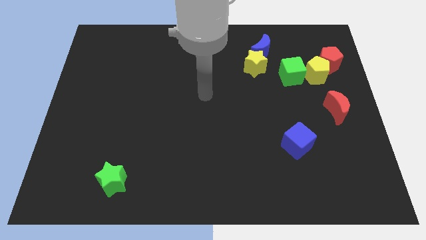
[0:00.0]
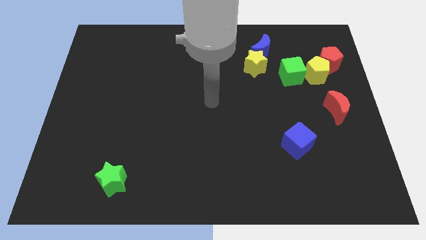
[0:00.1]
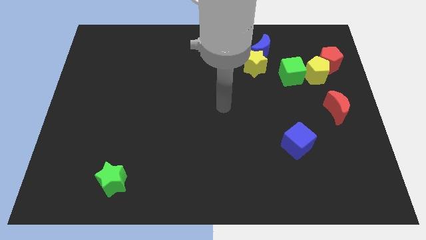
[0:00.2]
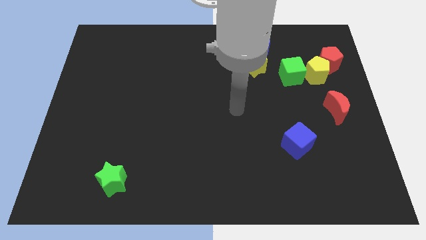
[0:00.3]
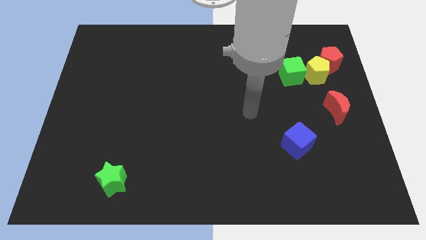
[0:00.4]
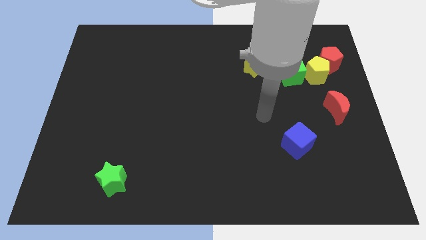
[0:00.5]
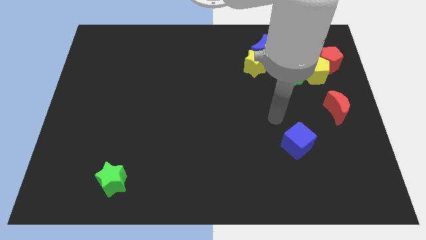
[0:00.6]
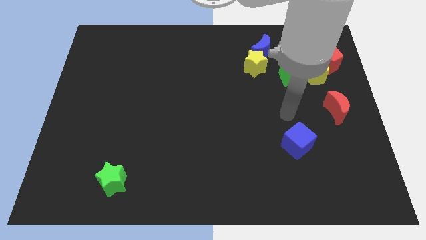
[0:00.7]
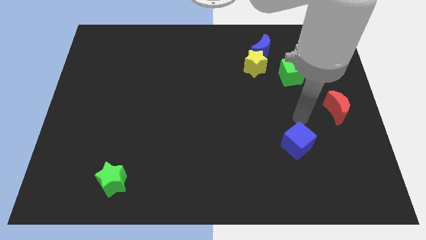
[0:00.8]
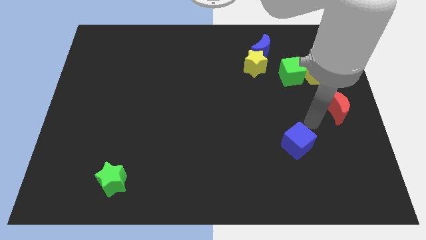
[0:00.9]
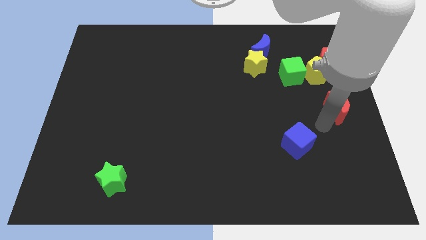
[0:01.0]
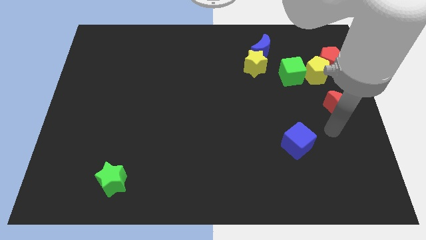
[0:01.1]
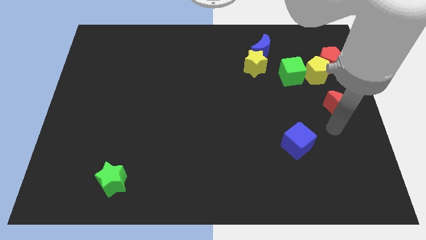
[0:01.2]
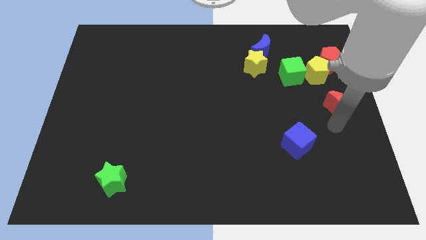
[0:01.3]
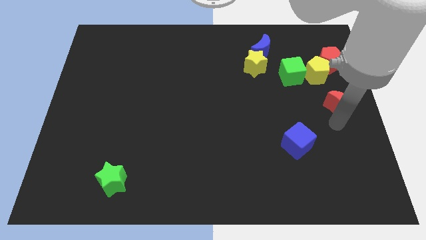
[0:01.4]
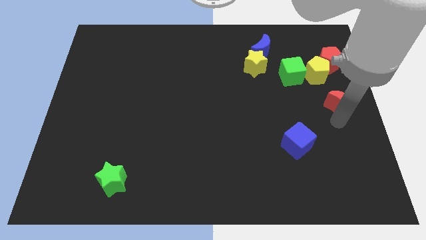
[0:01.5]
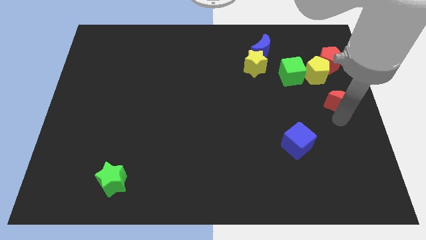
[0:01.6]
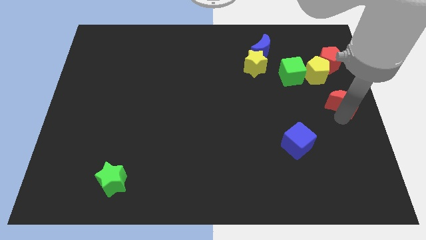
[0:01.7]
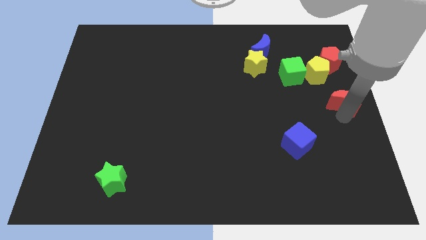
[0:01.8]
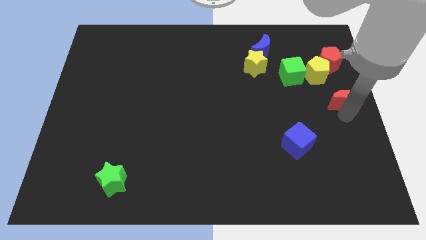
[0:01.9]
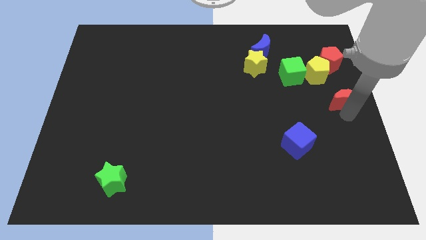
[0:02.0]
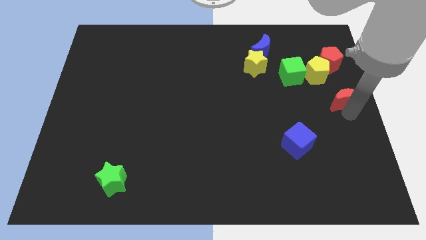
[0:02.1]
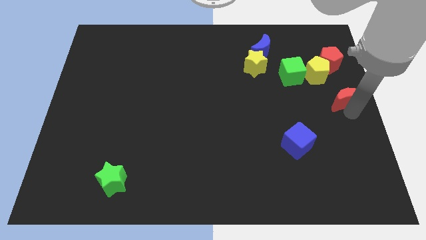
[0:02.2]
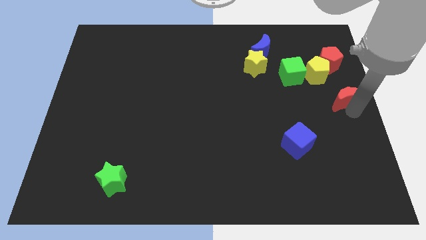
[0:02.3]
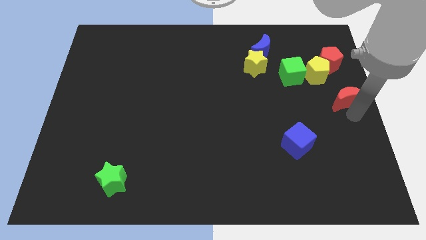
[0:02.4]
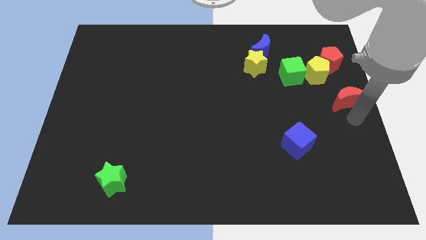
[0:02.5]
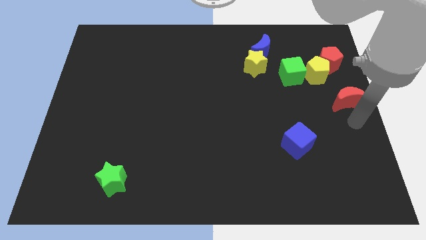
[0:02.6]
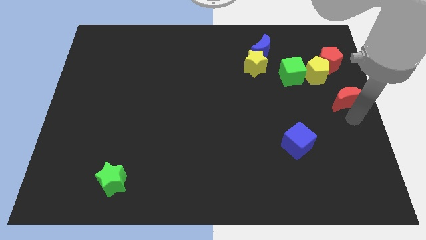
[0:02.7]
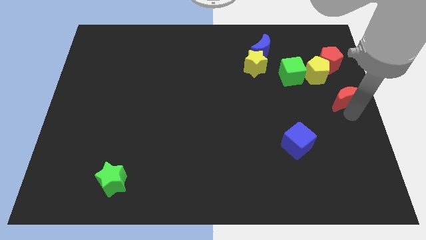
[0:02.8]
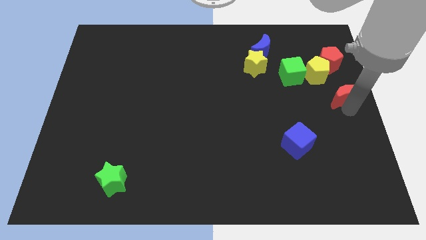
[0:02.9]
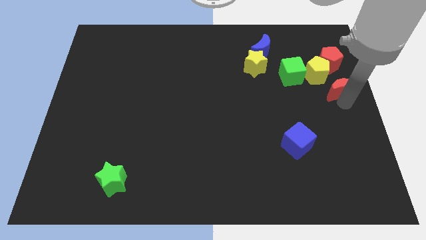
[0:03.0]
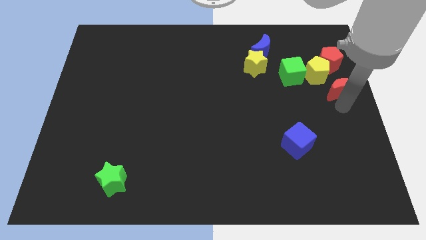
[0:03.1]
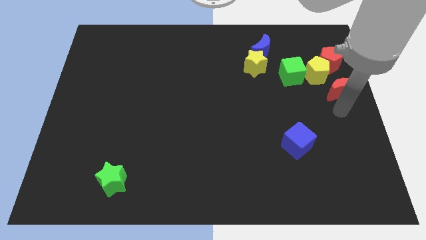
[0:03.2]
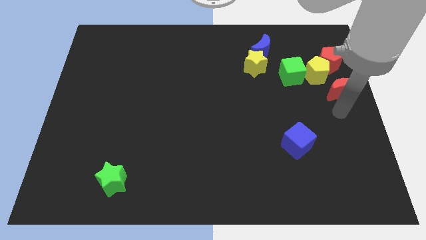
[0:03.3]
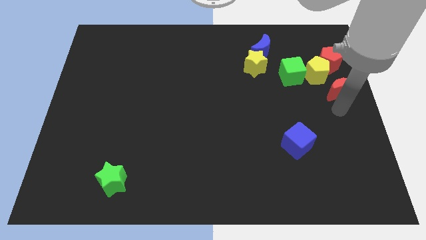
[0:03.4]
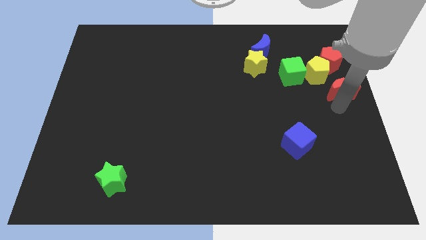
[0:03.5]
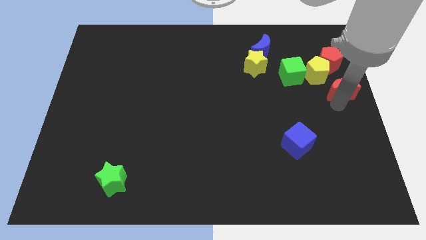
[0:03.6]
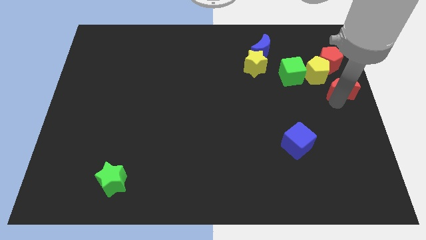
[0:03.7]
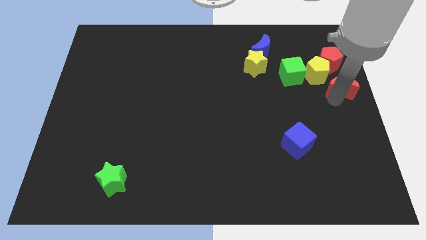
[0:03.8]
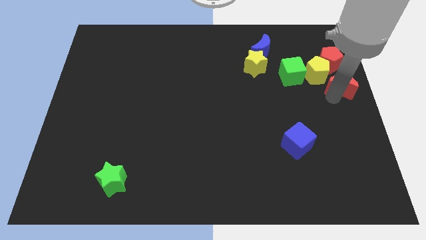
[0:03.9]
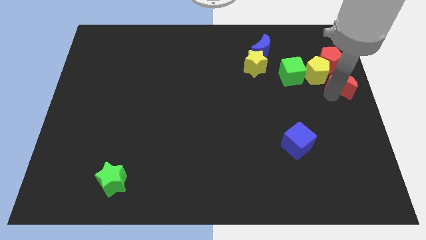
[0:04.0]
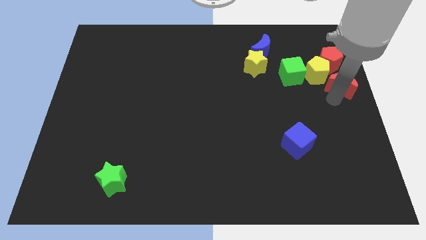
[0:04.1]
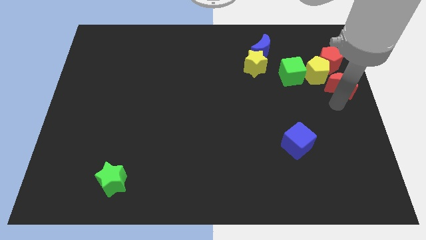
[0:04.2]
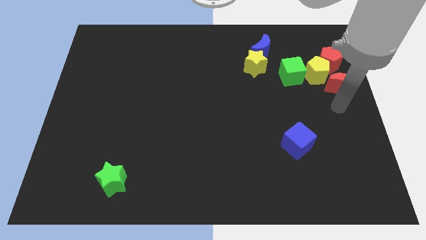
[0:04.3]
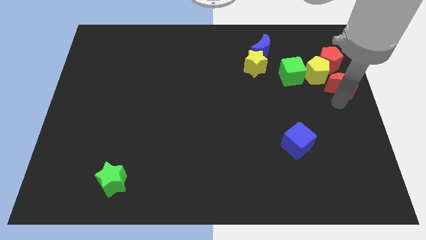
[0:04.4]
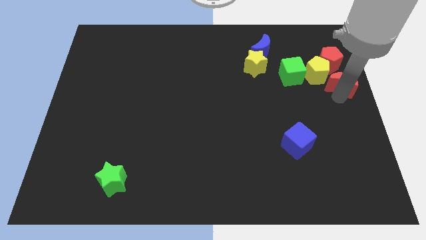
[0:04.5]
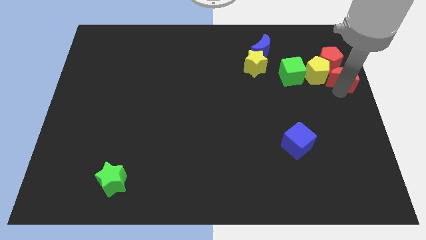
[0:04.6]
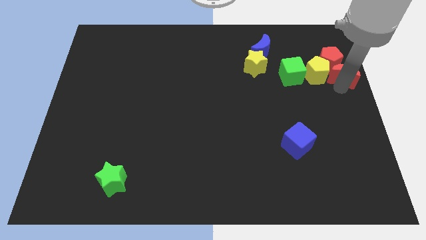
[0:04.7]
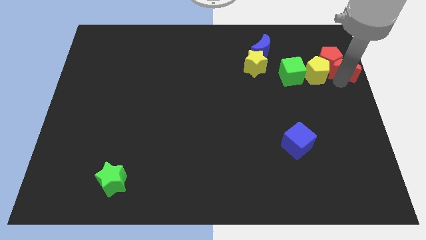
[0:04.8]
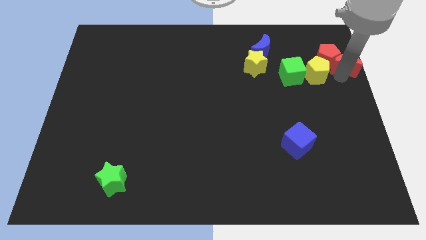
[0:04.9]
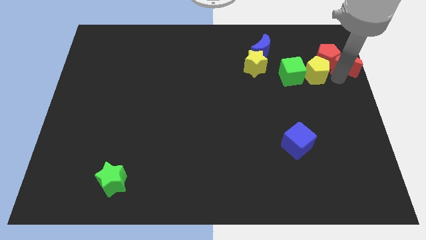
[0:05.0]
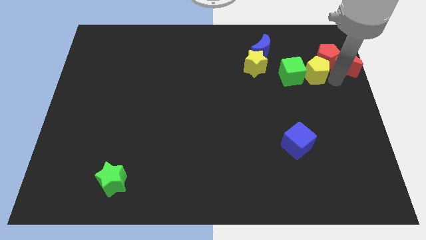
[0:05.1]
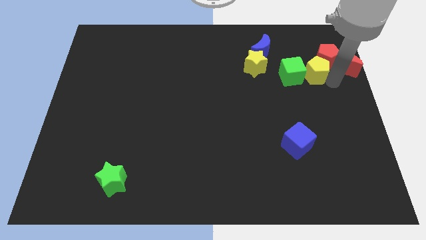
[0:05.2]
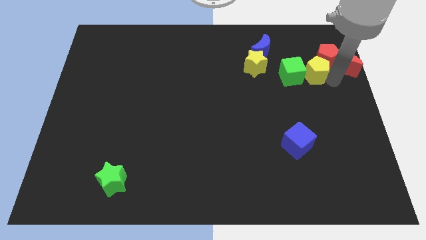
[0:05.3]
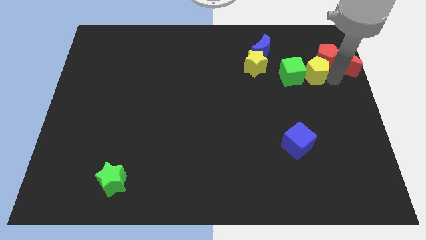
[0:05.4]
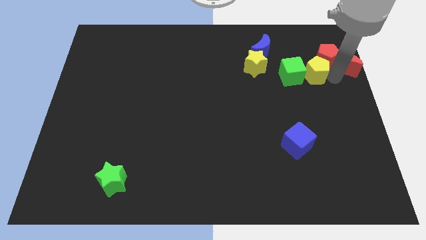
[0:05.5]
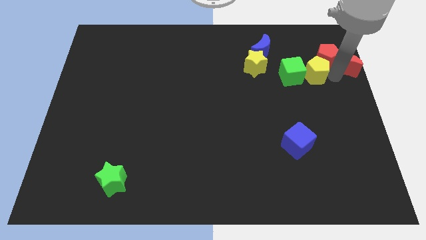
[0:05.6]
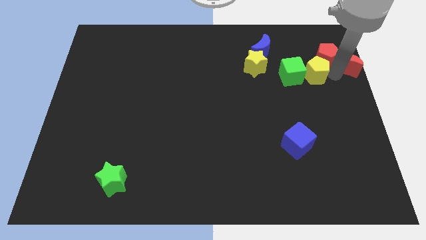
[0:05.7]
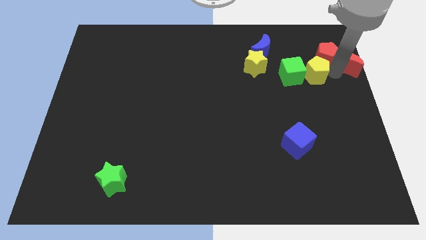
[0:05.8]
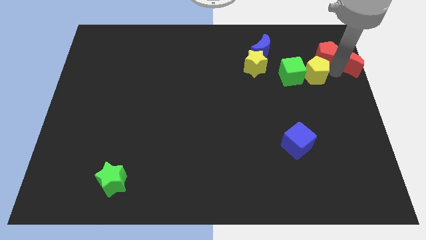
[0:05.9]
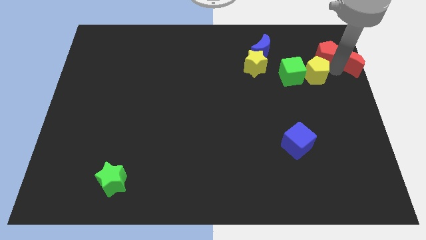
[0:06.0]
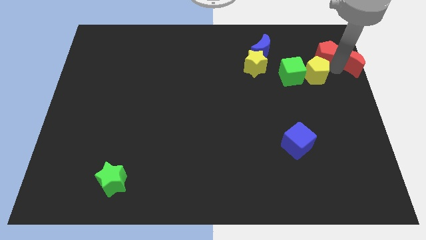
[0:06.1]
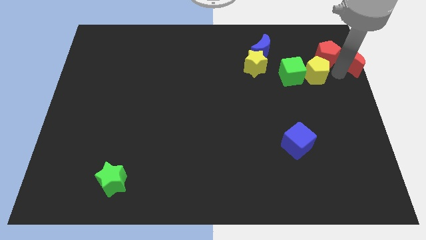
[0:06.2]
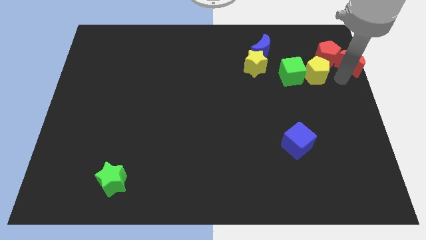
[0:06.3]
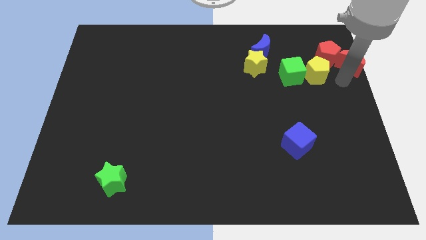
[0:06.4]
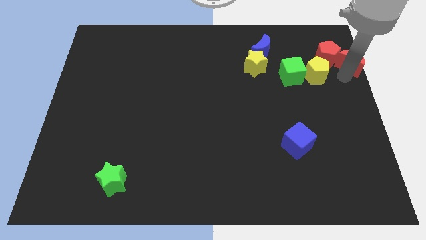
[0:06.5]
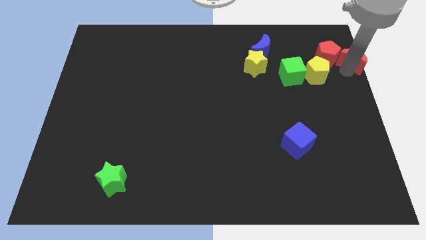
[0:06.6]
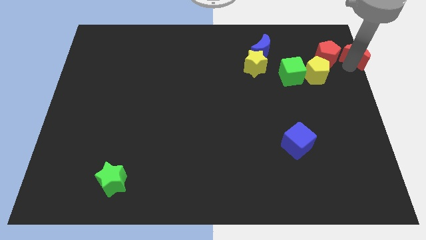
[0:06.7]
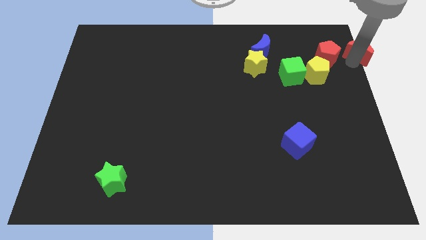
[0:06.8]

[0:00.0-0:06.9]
put the red moon to the upper right corner

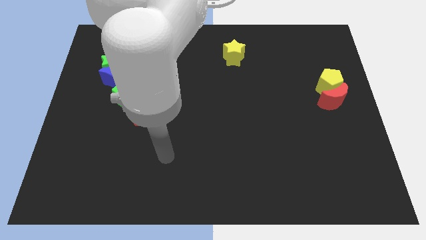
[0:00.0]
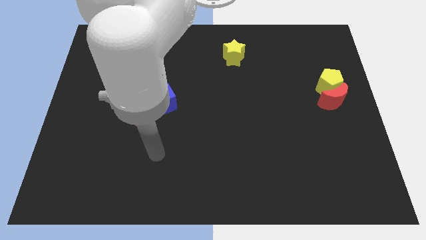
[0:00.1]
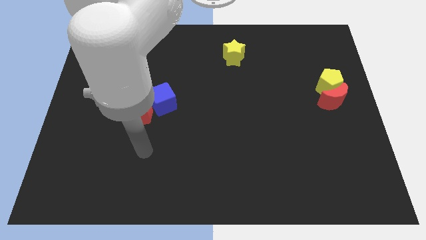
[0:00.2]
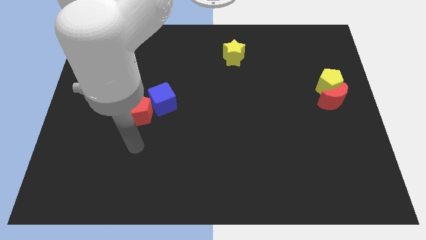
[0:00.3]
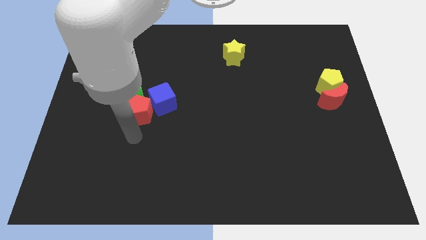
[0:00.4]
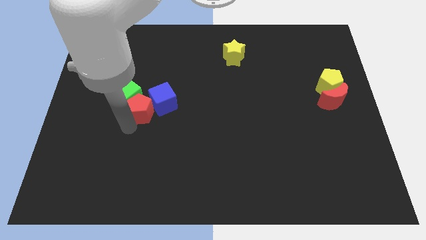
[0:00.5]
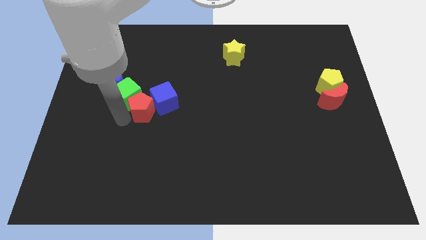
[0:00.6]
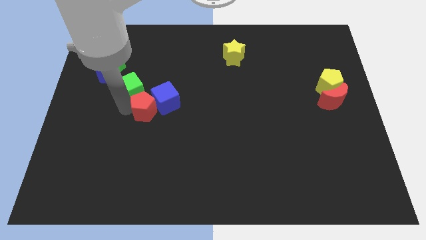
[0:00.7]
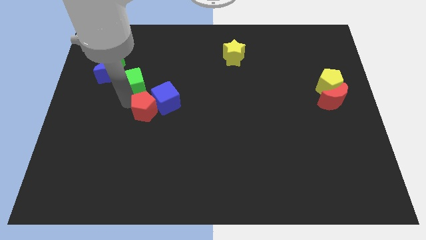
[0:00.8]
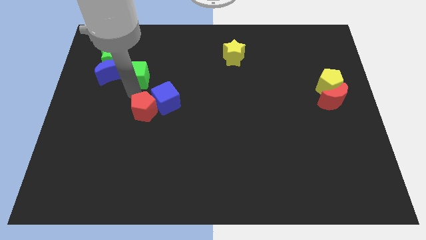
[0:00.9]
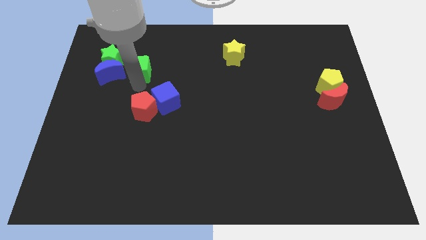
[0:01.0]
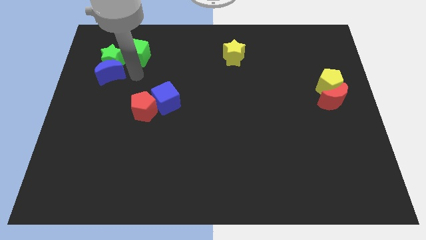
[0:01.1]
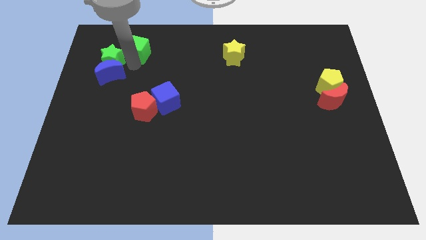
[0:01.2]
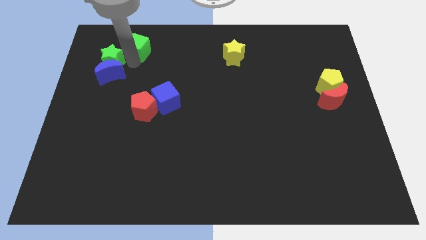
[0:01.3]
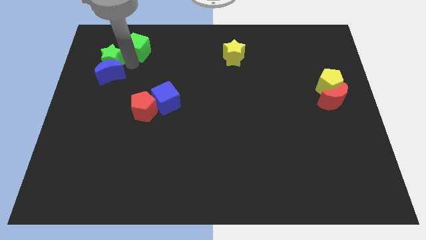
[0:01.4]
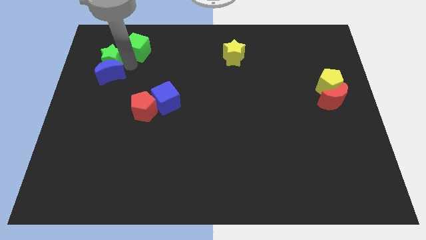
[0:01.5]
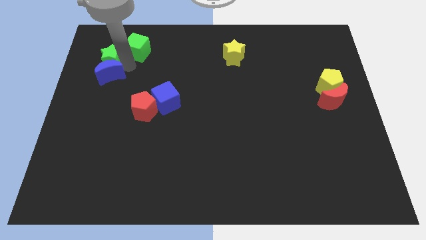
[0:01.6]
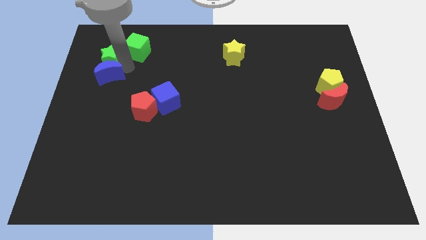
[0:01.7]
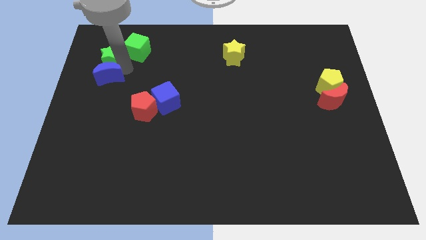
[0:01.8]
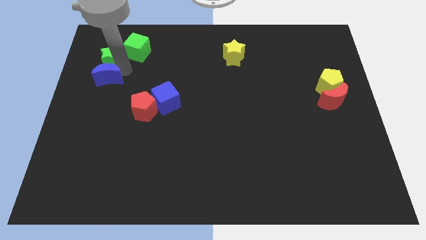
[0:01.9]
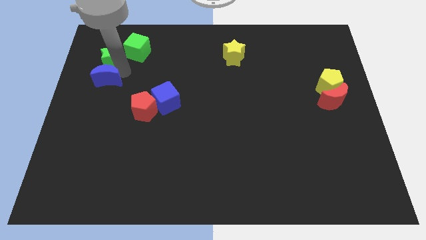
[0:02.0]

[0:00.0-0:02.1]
put the blue moon to the left side
